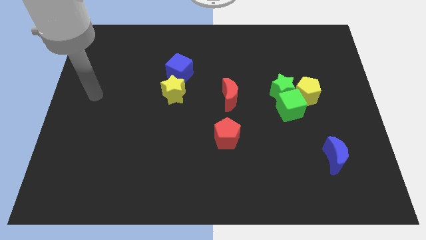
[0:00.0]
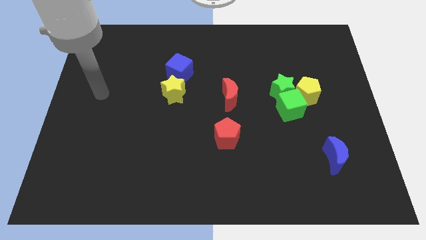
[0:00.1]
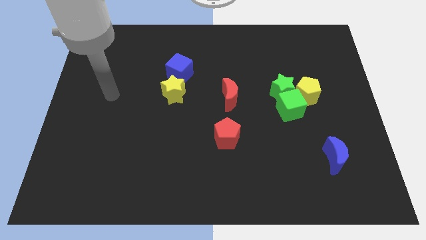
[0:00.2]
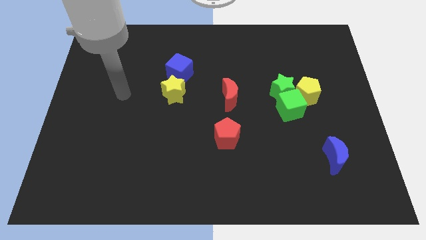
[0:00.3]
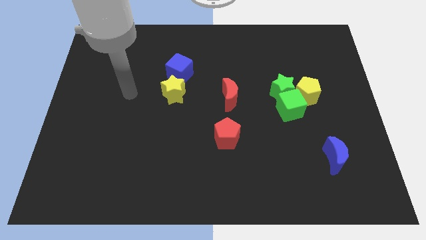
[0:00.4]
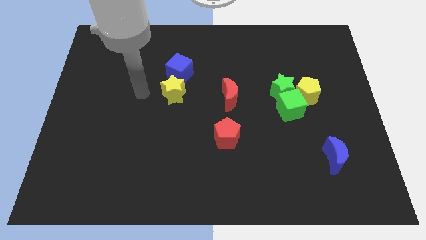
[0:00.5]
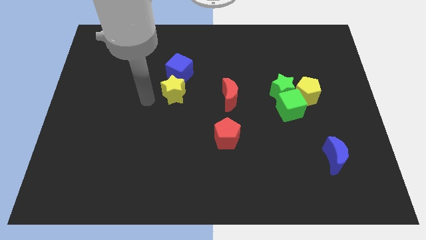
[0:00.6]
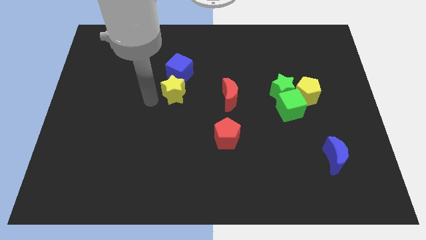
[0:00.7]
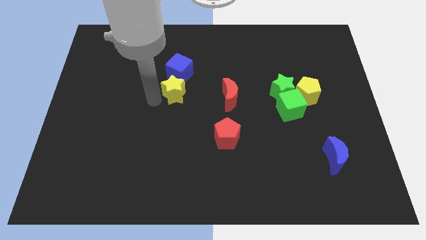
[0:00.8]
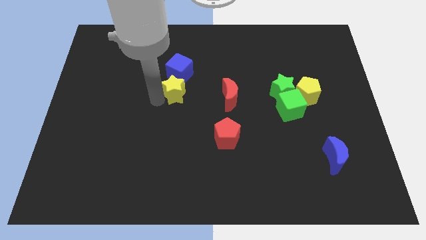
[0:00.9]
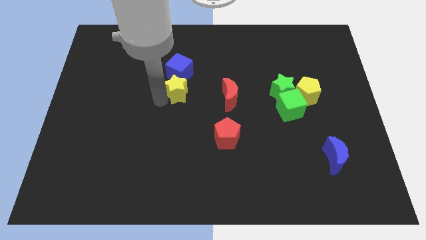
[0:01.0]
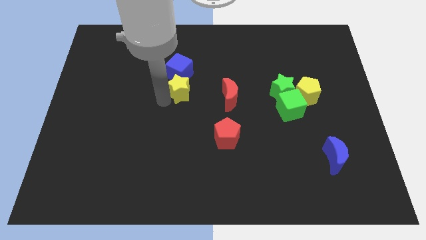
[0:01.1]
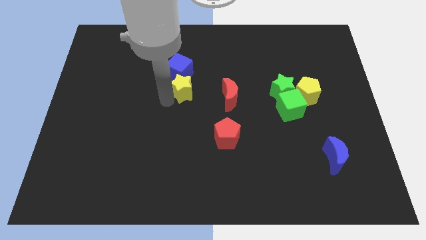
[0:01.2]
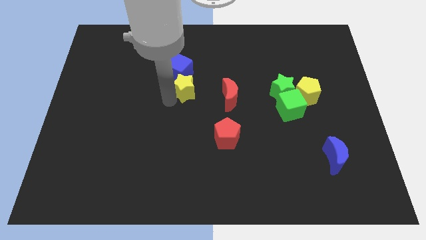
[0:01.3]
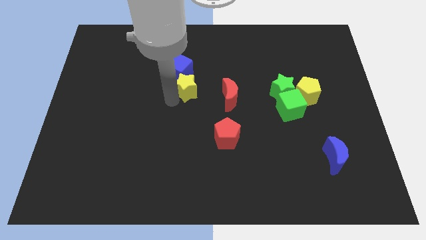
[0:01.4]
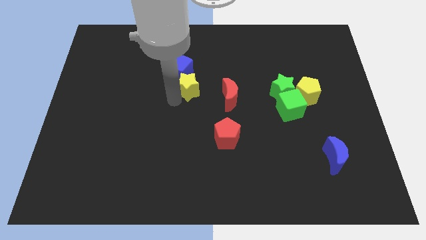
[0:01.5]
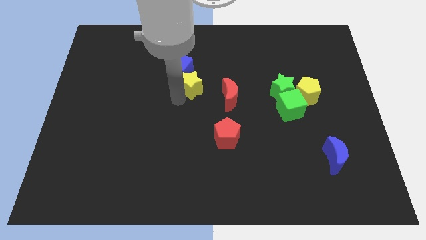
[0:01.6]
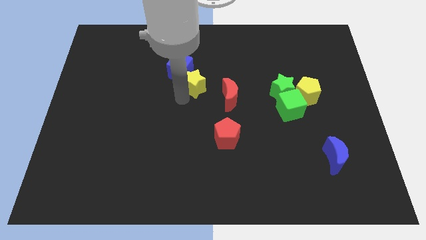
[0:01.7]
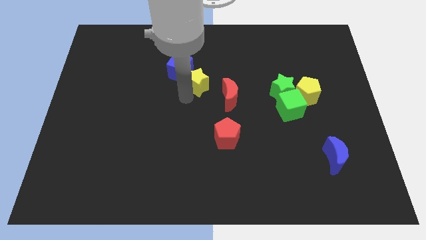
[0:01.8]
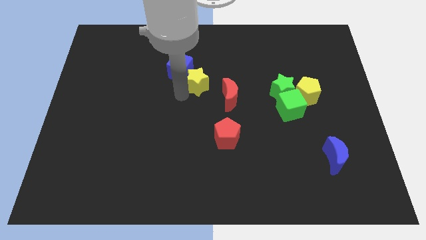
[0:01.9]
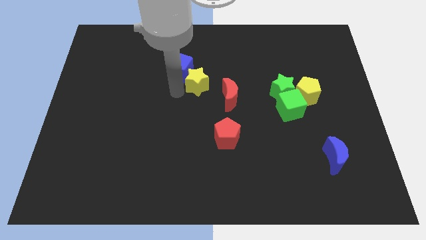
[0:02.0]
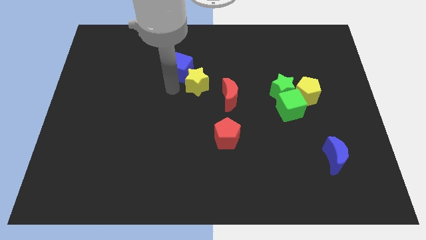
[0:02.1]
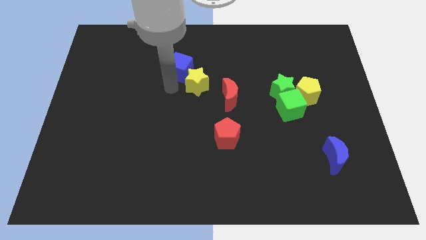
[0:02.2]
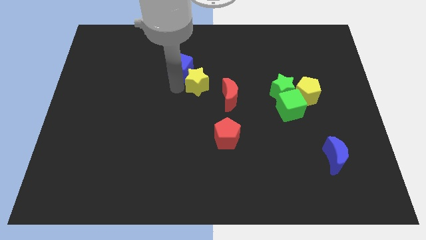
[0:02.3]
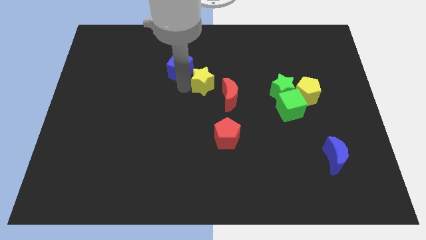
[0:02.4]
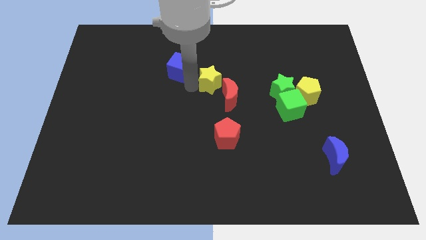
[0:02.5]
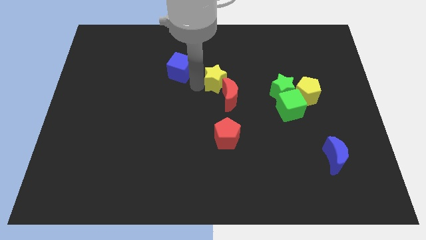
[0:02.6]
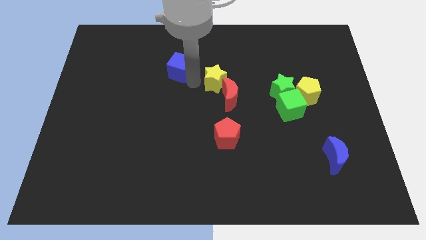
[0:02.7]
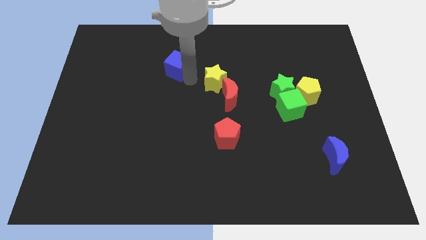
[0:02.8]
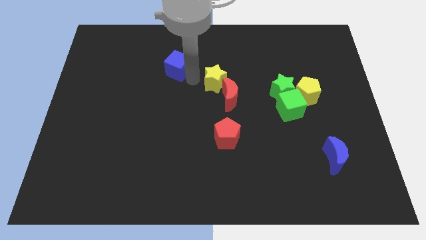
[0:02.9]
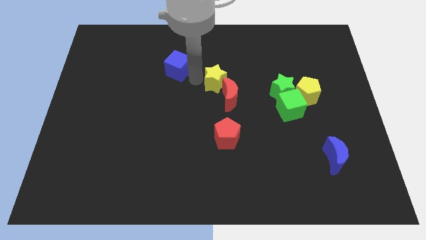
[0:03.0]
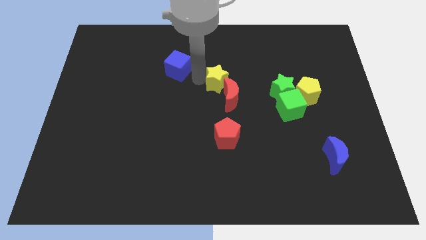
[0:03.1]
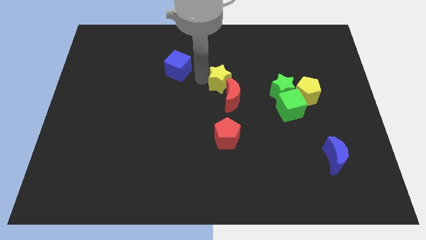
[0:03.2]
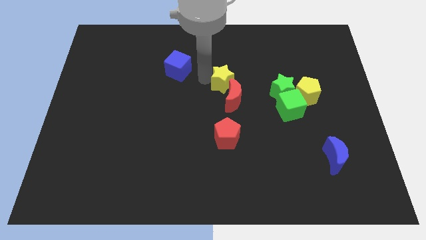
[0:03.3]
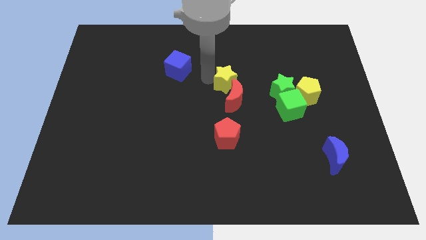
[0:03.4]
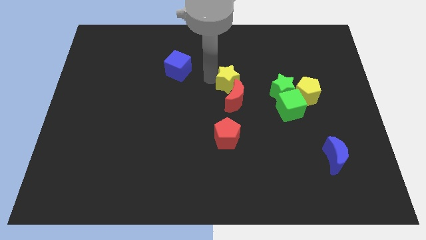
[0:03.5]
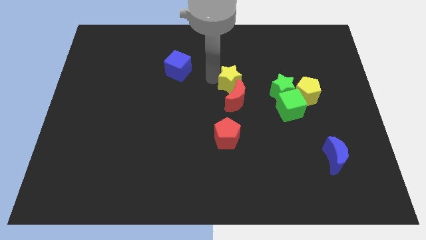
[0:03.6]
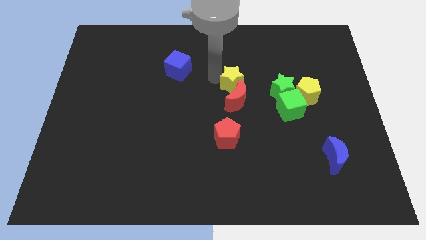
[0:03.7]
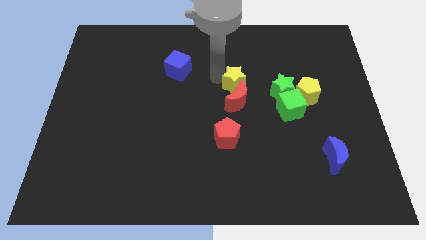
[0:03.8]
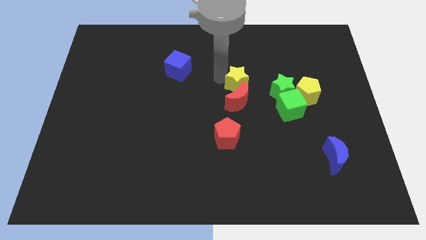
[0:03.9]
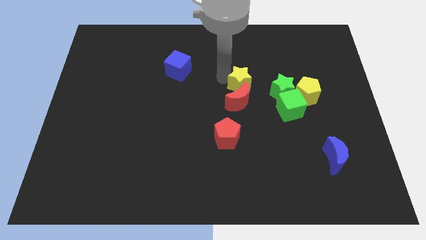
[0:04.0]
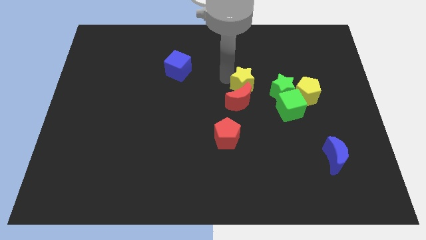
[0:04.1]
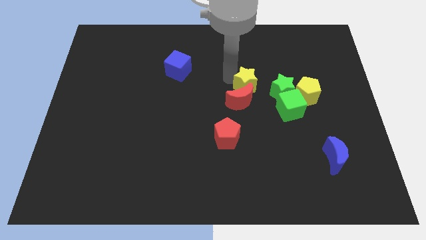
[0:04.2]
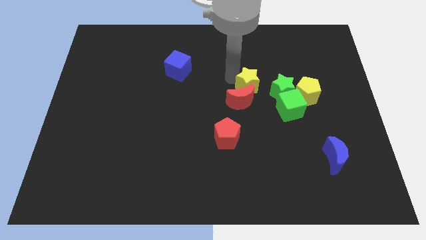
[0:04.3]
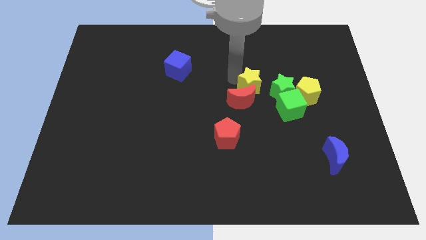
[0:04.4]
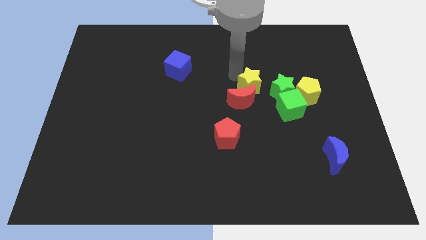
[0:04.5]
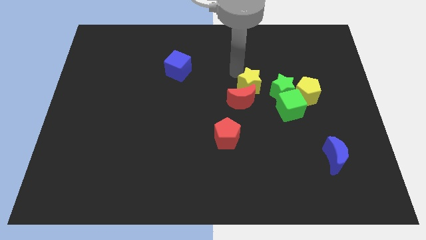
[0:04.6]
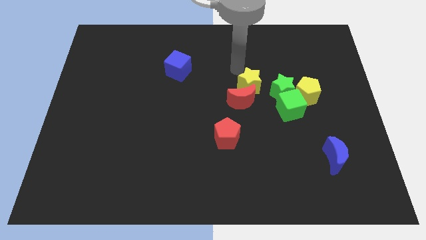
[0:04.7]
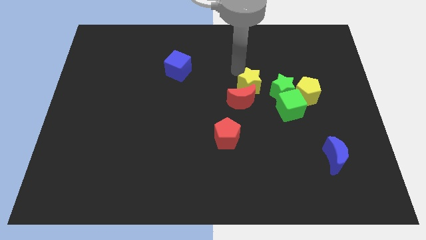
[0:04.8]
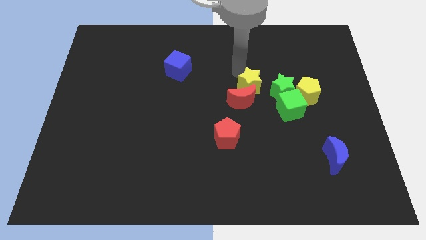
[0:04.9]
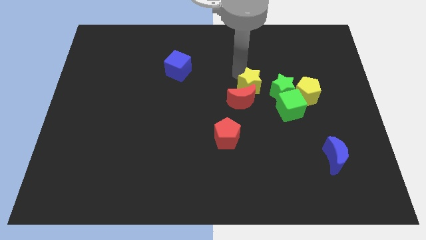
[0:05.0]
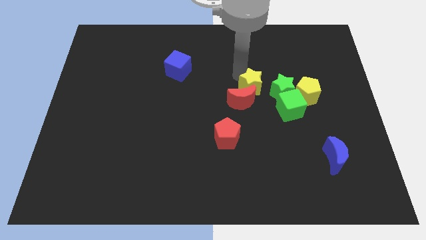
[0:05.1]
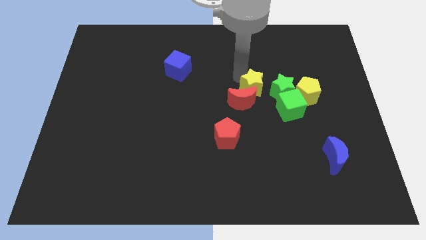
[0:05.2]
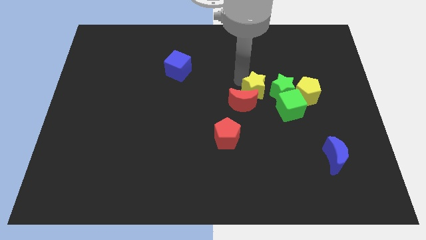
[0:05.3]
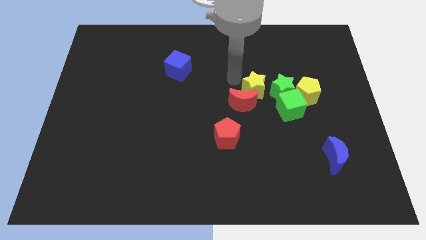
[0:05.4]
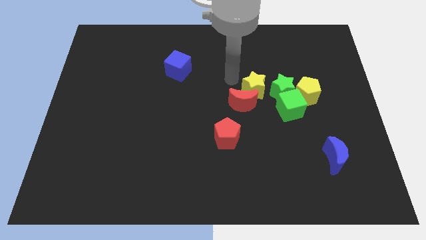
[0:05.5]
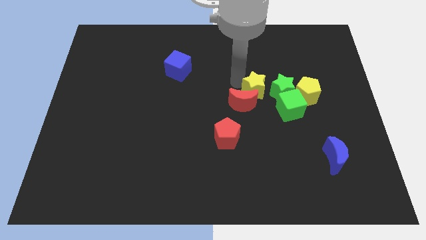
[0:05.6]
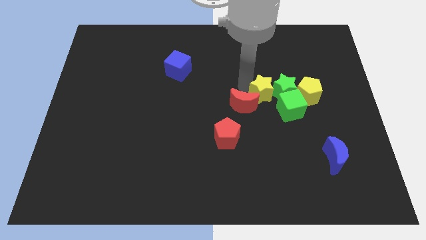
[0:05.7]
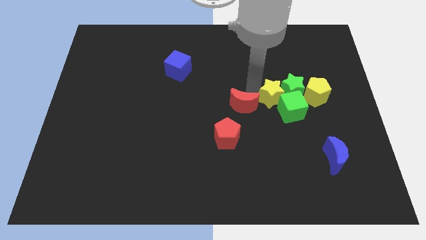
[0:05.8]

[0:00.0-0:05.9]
push the yellow star next to the green cube

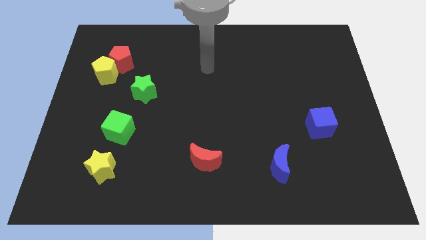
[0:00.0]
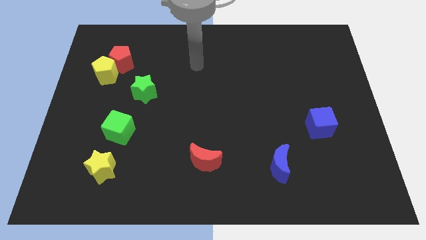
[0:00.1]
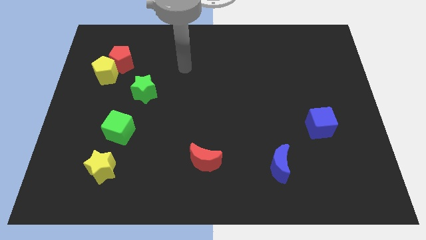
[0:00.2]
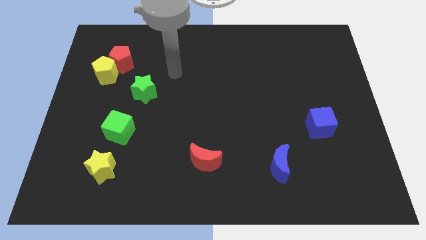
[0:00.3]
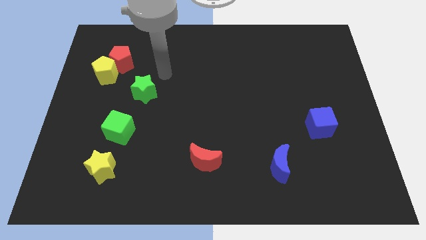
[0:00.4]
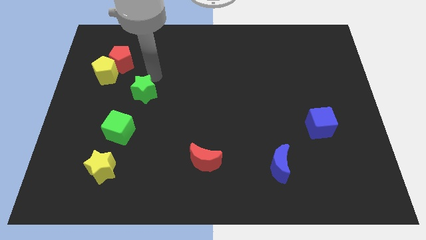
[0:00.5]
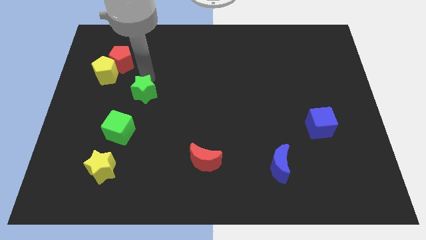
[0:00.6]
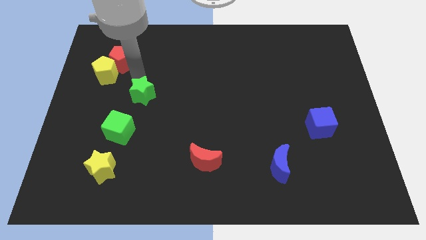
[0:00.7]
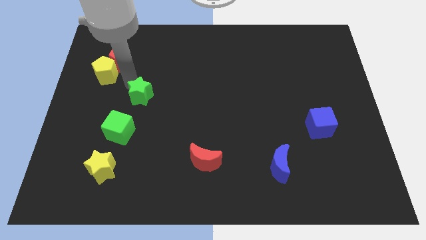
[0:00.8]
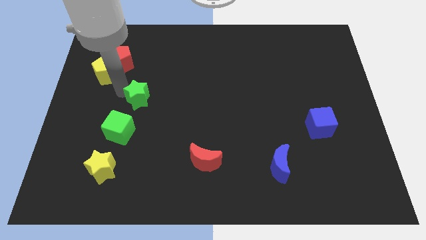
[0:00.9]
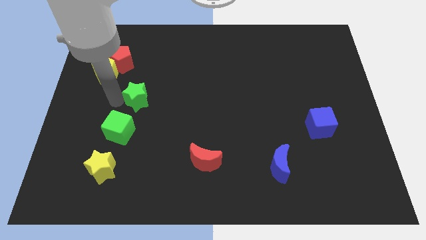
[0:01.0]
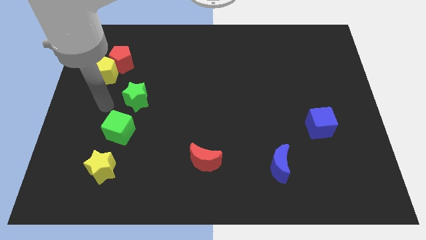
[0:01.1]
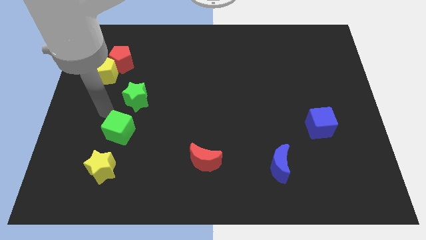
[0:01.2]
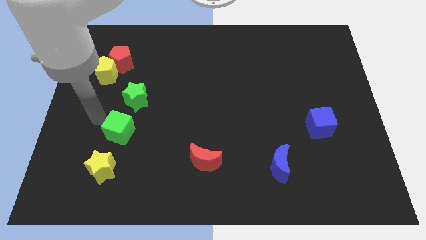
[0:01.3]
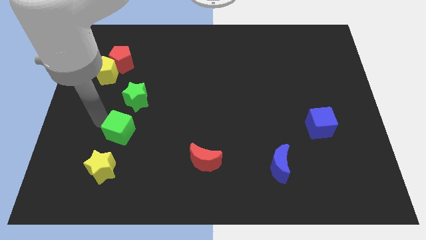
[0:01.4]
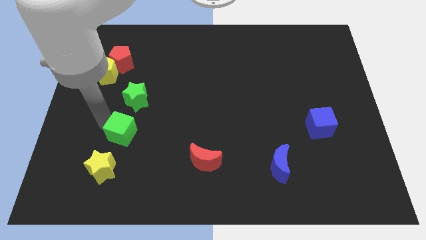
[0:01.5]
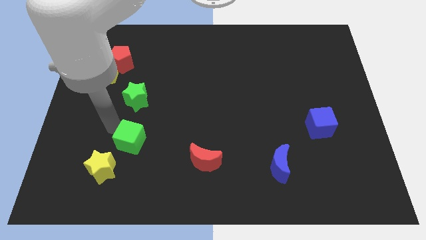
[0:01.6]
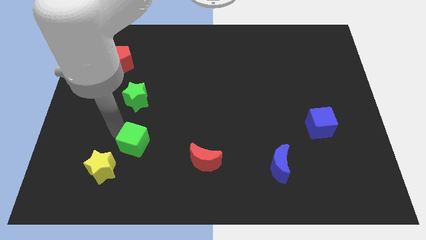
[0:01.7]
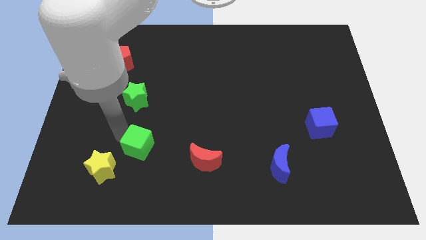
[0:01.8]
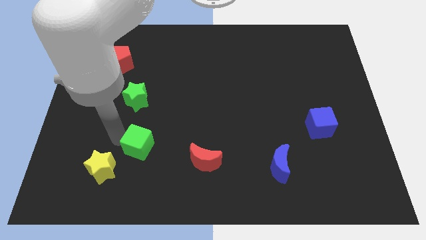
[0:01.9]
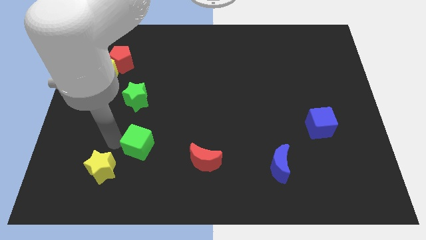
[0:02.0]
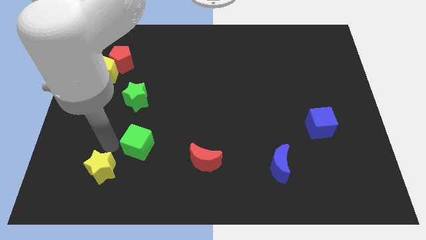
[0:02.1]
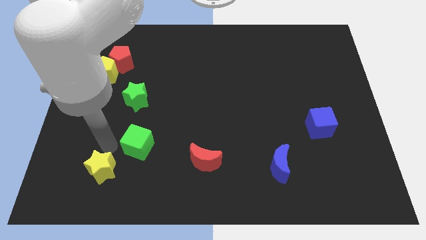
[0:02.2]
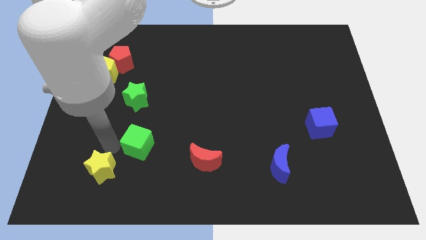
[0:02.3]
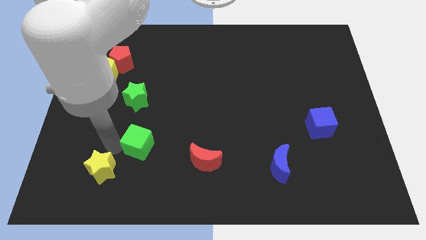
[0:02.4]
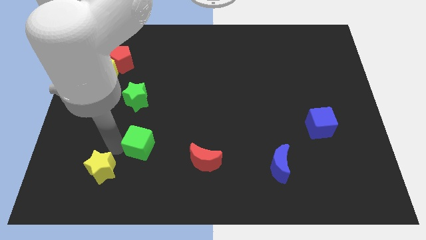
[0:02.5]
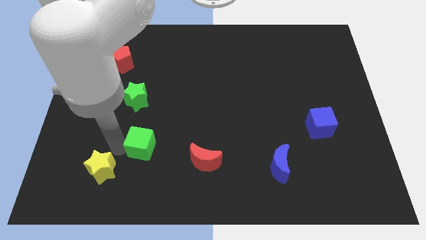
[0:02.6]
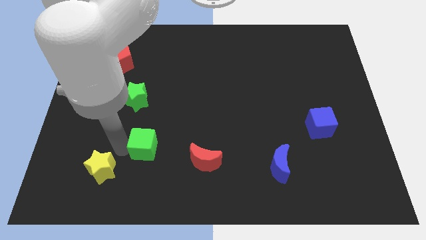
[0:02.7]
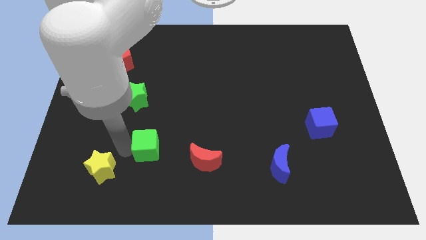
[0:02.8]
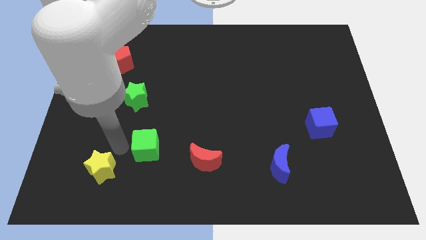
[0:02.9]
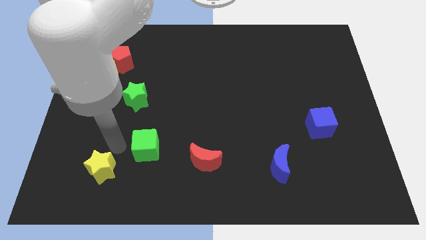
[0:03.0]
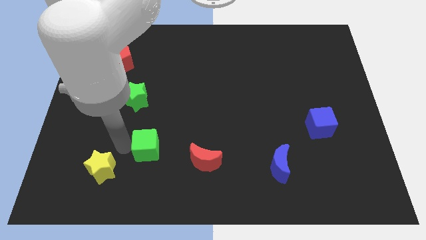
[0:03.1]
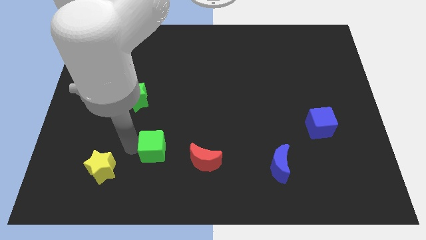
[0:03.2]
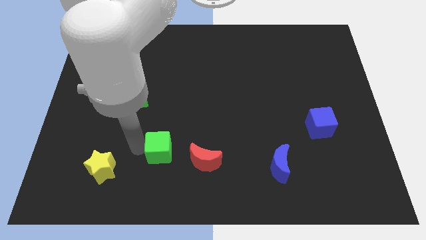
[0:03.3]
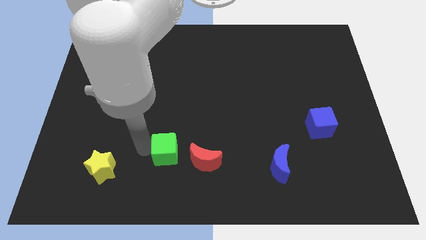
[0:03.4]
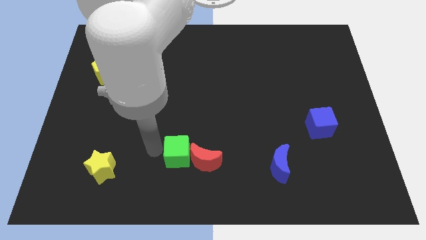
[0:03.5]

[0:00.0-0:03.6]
push the green cube to the red moon
